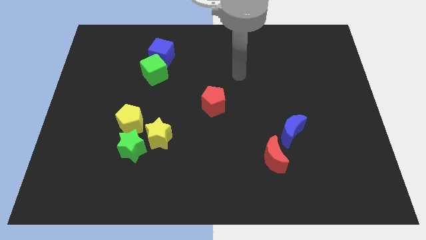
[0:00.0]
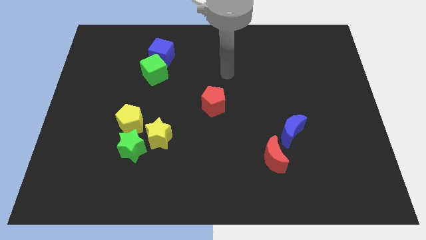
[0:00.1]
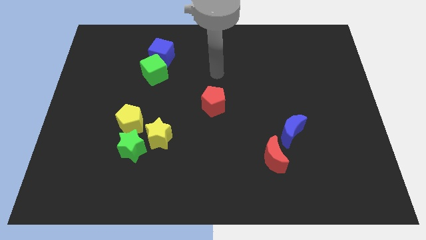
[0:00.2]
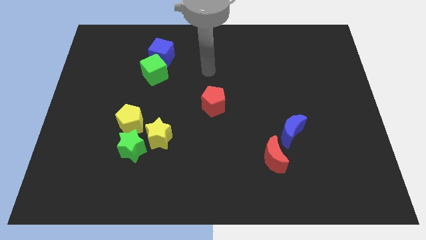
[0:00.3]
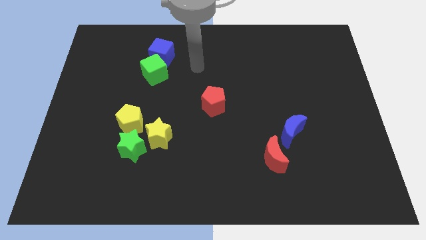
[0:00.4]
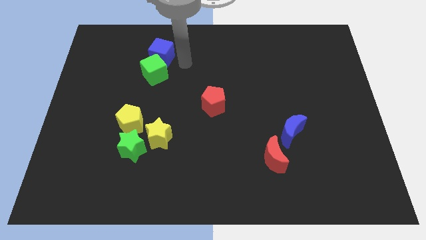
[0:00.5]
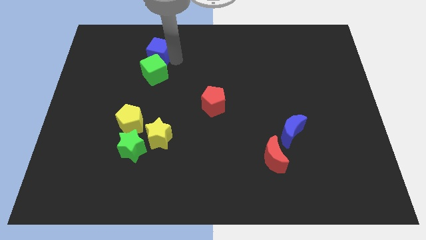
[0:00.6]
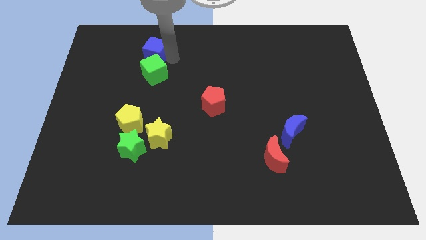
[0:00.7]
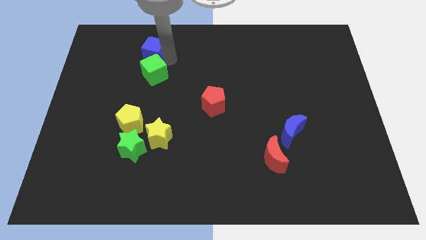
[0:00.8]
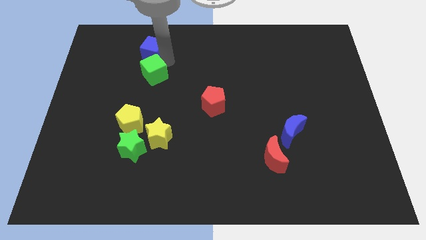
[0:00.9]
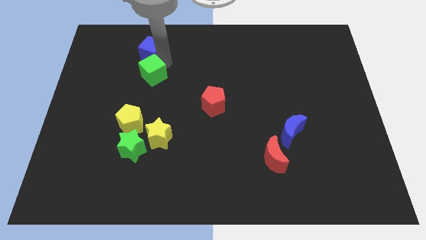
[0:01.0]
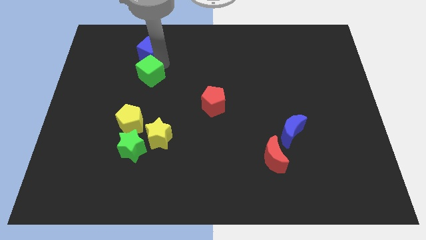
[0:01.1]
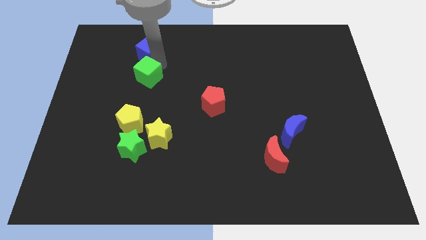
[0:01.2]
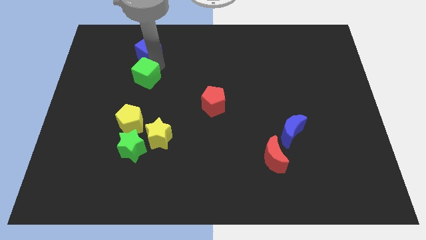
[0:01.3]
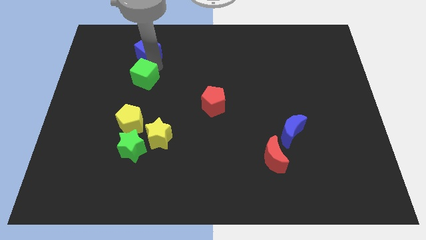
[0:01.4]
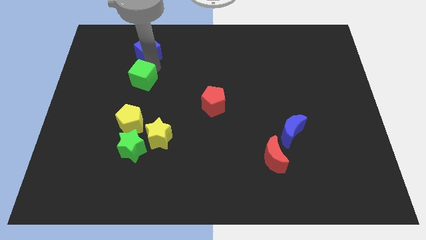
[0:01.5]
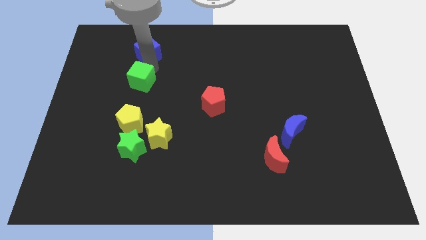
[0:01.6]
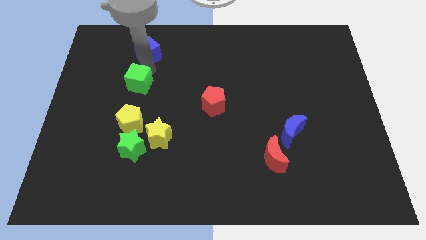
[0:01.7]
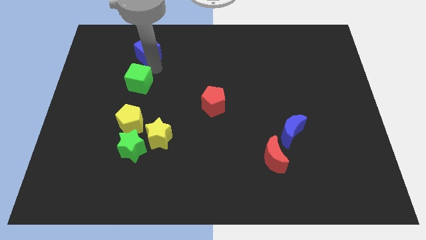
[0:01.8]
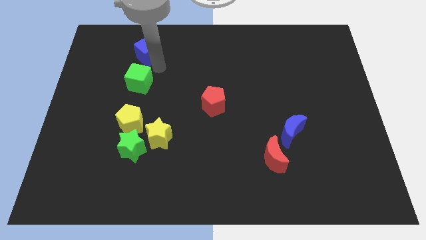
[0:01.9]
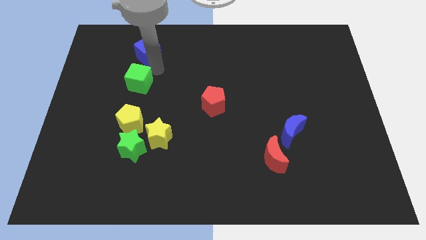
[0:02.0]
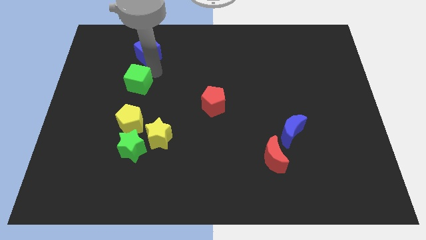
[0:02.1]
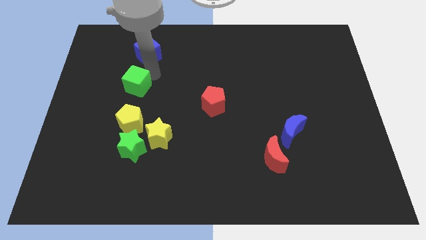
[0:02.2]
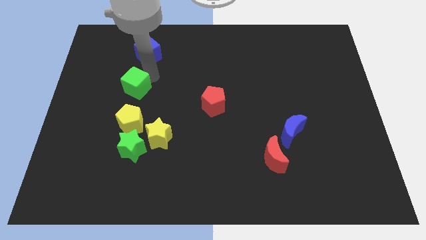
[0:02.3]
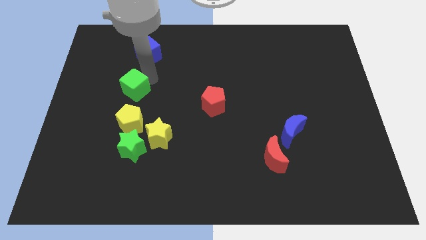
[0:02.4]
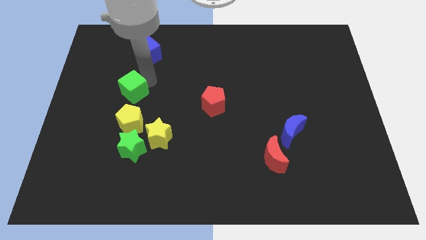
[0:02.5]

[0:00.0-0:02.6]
push the green cube a little bit diagonally down and to the left

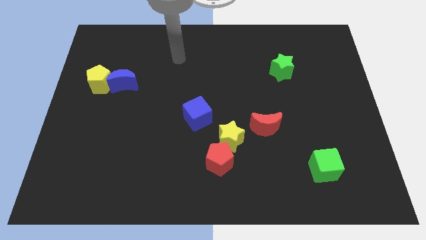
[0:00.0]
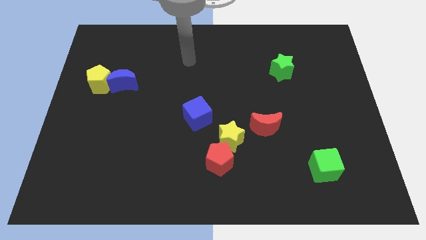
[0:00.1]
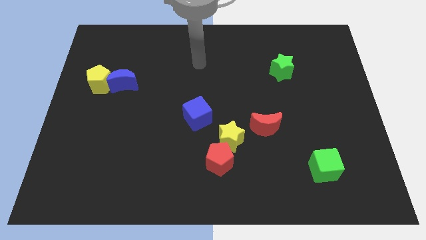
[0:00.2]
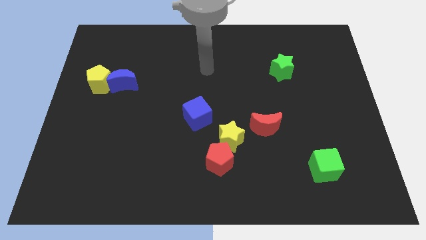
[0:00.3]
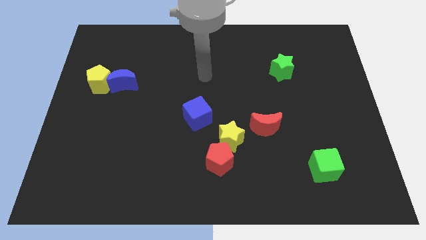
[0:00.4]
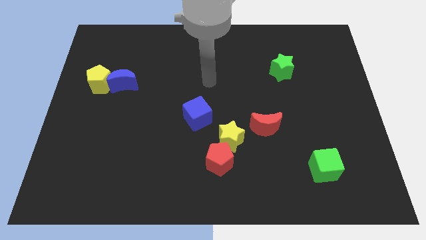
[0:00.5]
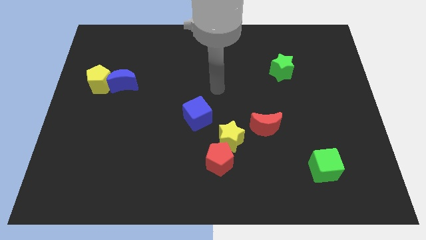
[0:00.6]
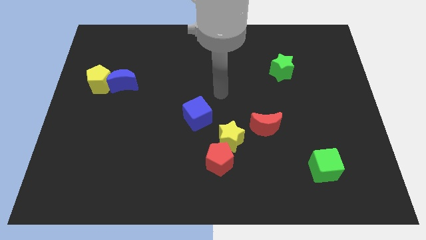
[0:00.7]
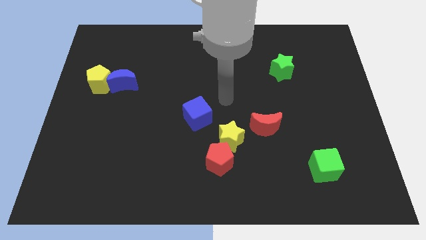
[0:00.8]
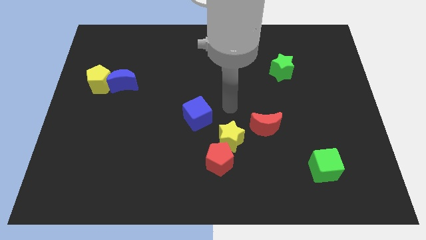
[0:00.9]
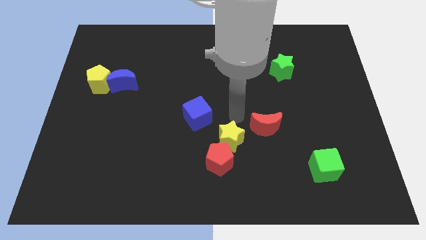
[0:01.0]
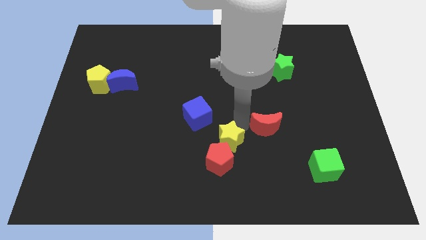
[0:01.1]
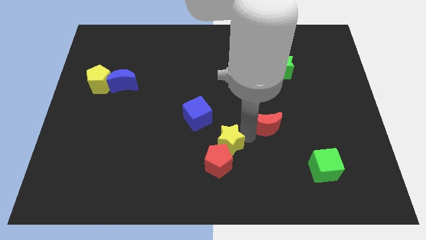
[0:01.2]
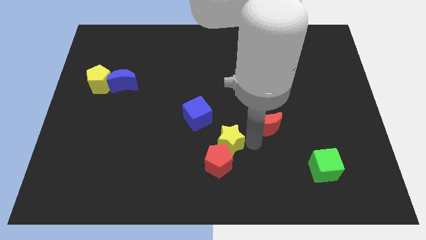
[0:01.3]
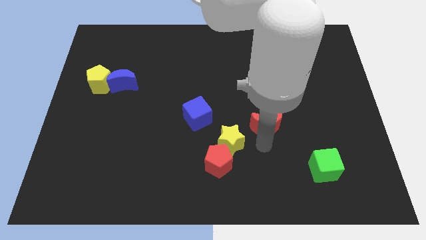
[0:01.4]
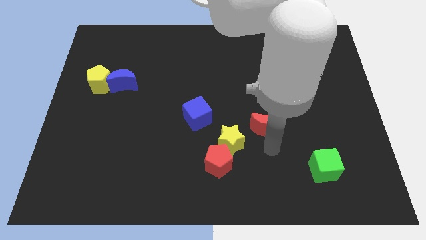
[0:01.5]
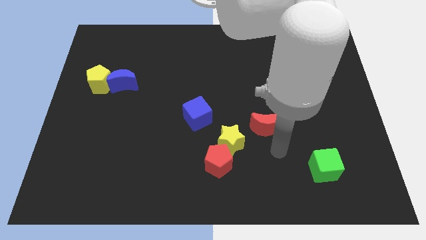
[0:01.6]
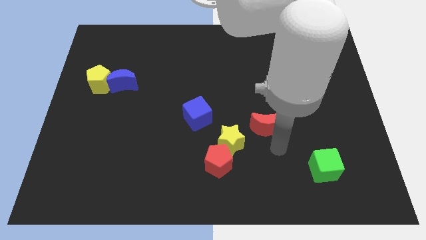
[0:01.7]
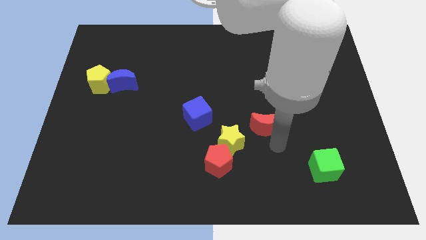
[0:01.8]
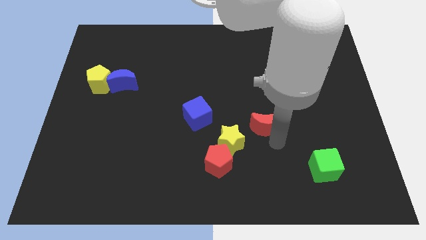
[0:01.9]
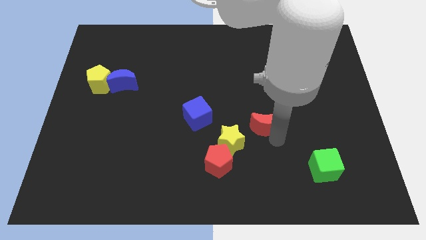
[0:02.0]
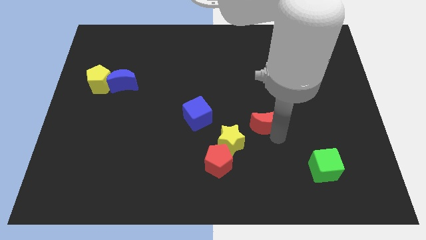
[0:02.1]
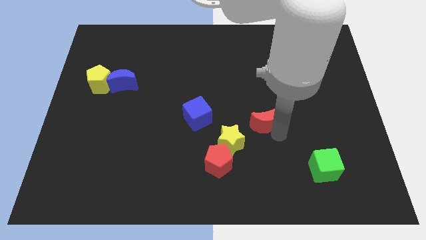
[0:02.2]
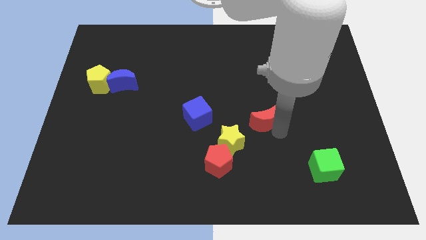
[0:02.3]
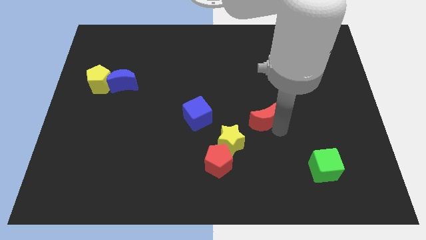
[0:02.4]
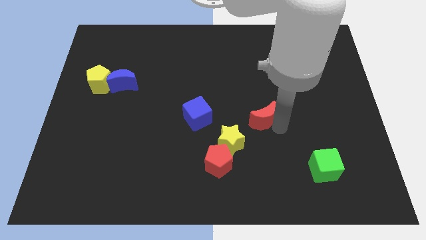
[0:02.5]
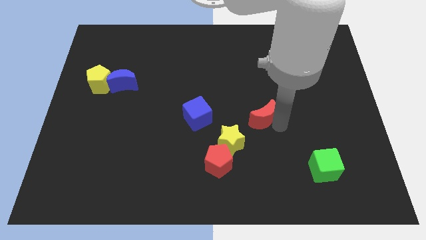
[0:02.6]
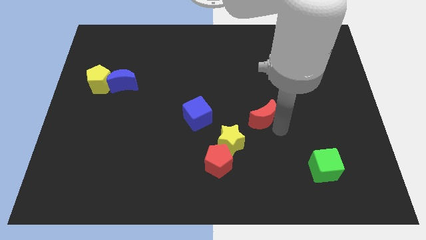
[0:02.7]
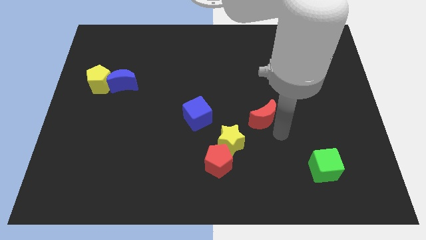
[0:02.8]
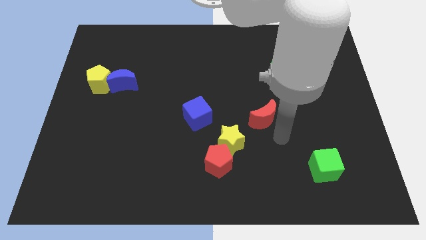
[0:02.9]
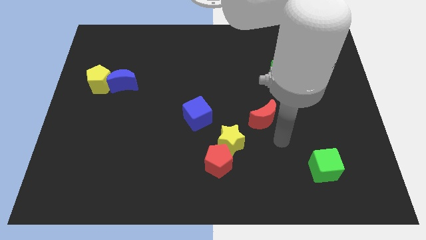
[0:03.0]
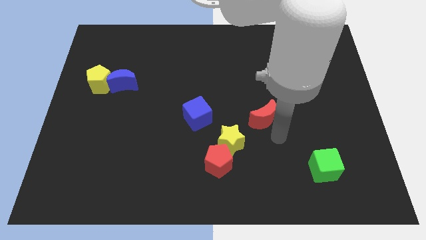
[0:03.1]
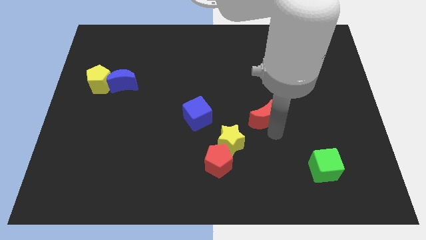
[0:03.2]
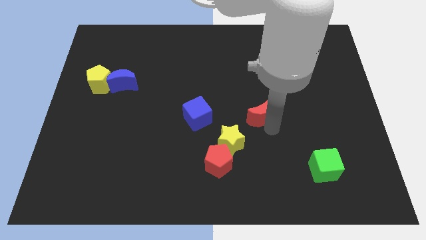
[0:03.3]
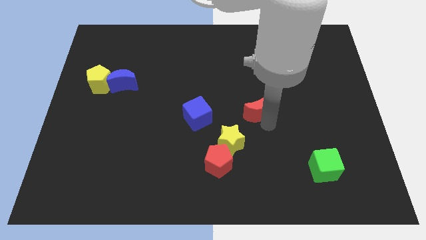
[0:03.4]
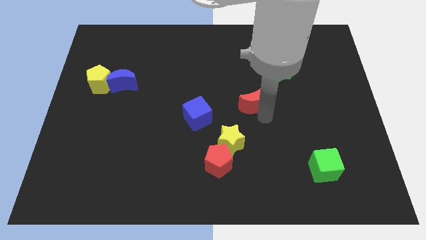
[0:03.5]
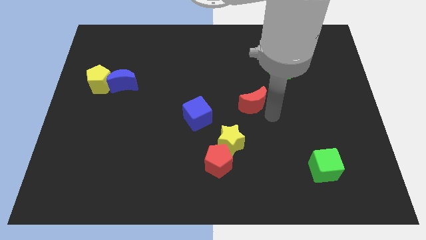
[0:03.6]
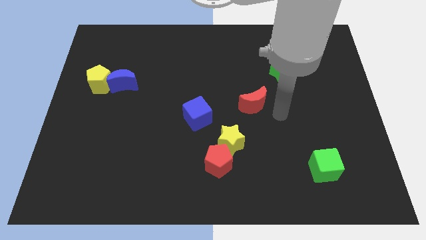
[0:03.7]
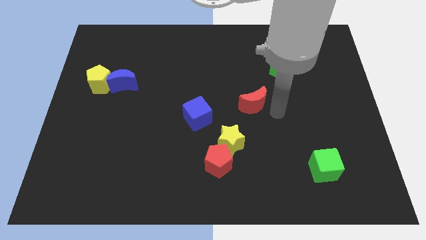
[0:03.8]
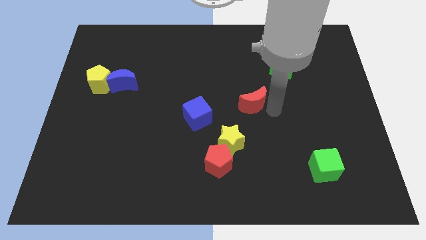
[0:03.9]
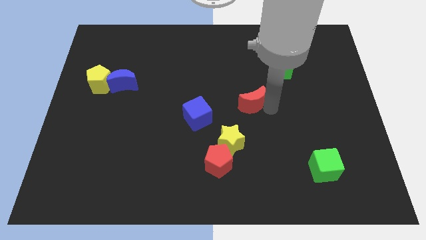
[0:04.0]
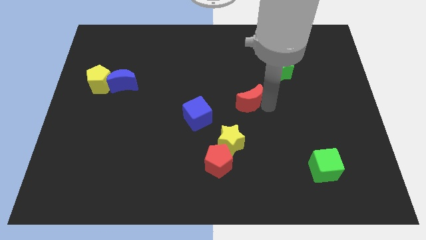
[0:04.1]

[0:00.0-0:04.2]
slide the red moon a little up and to the left diagonally

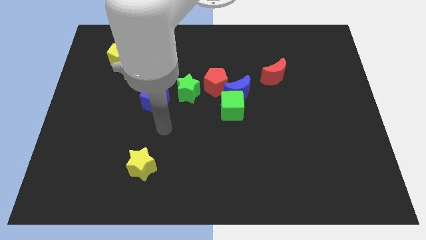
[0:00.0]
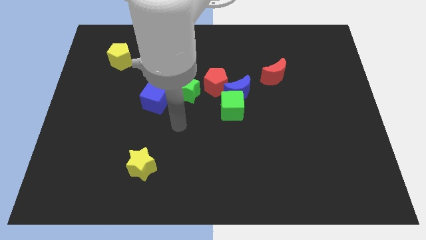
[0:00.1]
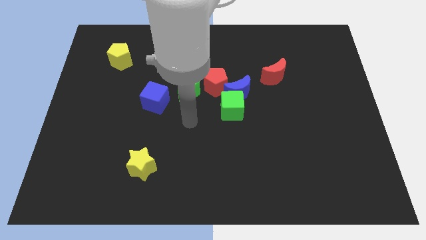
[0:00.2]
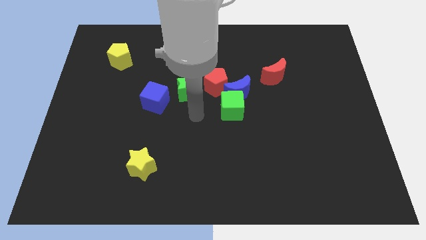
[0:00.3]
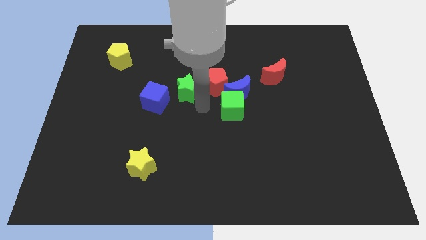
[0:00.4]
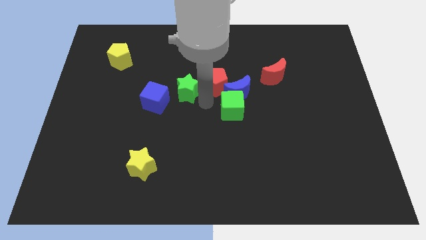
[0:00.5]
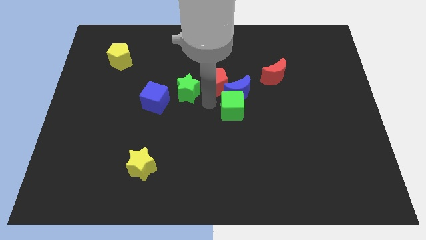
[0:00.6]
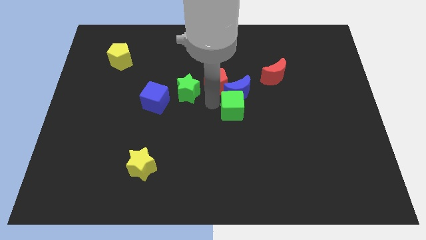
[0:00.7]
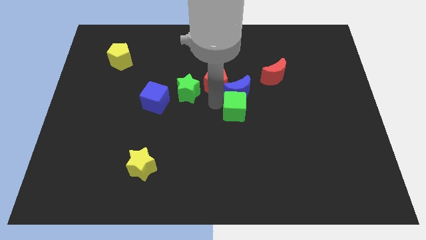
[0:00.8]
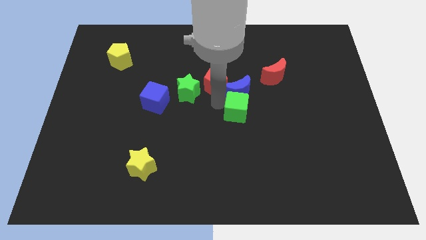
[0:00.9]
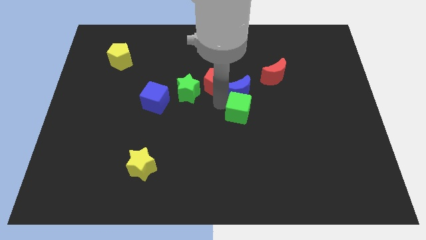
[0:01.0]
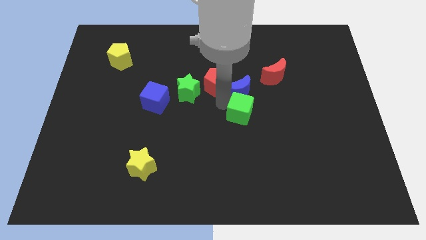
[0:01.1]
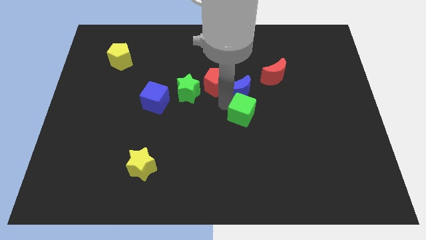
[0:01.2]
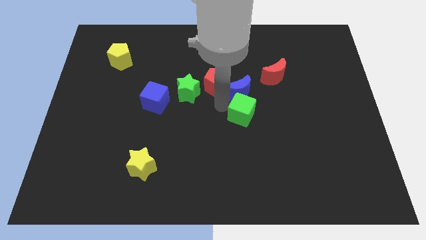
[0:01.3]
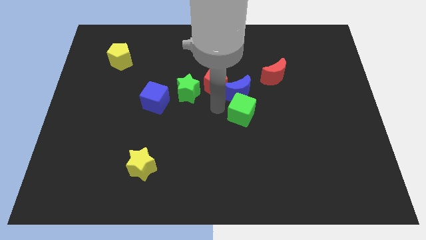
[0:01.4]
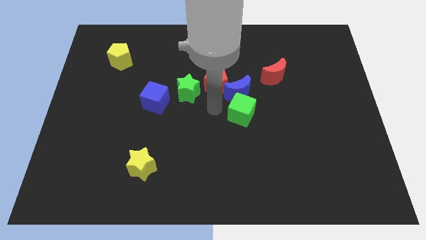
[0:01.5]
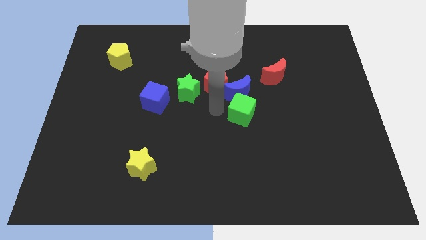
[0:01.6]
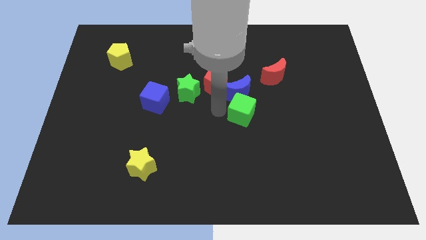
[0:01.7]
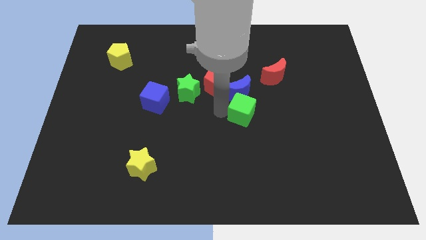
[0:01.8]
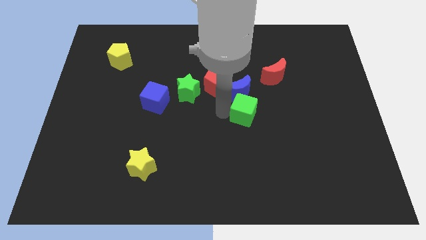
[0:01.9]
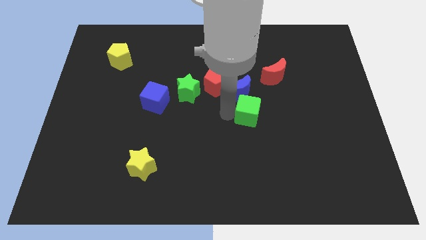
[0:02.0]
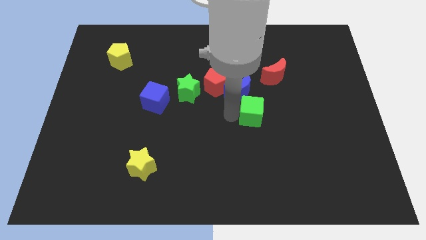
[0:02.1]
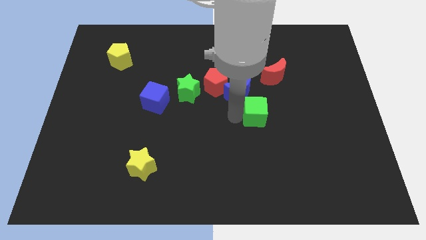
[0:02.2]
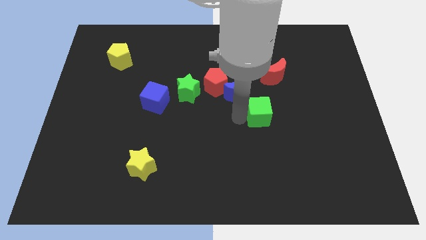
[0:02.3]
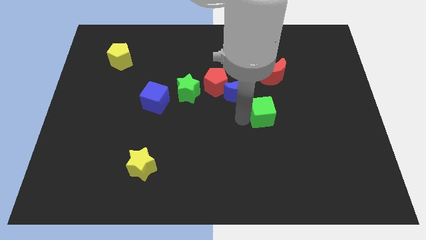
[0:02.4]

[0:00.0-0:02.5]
move the green cube right a little
